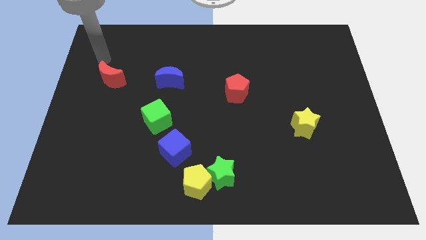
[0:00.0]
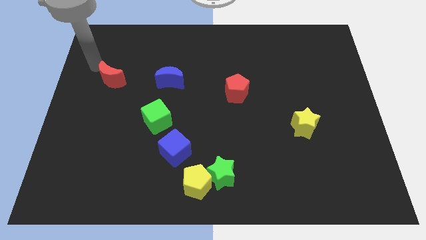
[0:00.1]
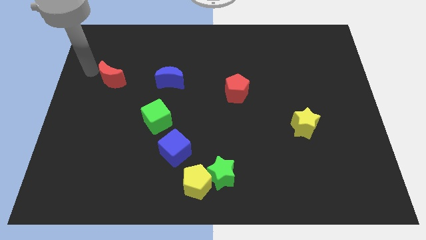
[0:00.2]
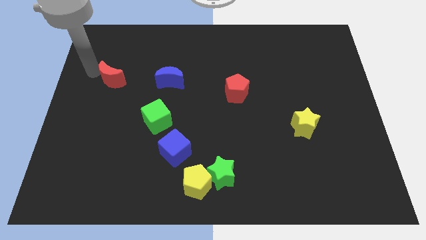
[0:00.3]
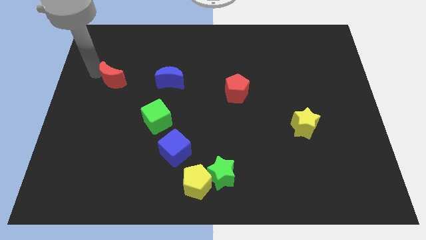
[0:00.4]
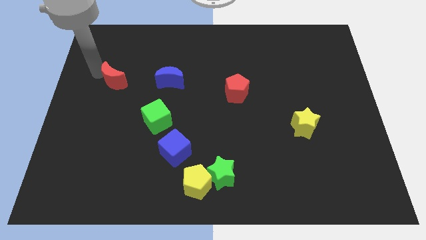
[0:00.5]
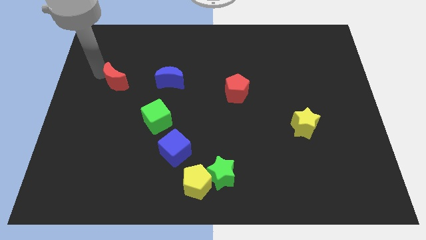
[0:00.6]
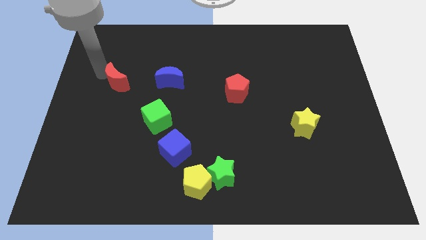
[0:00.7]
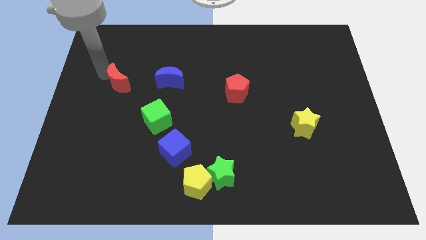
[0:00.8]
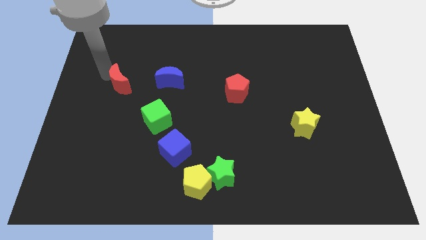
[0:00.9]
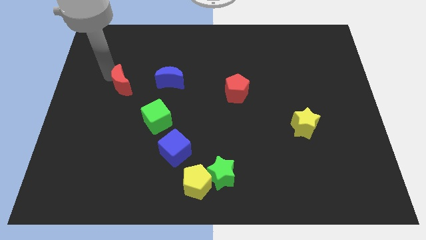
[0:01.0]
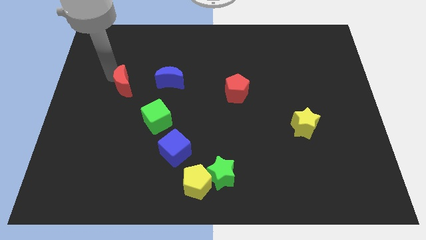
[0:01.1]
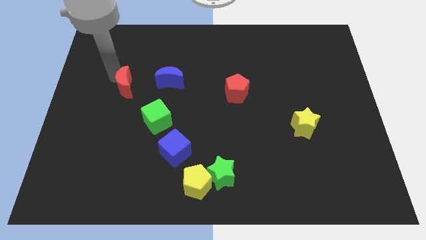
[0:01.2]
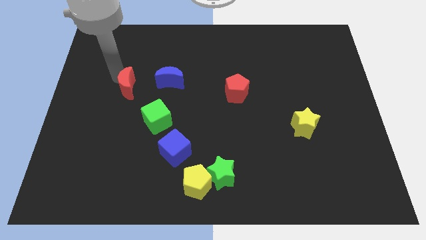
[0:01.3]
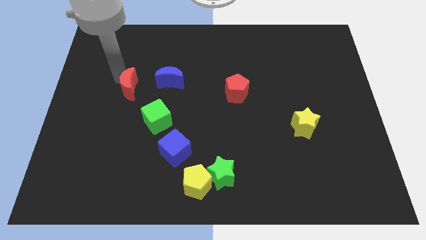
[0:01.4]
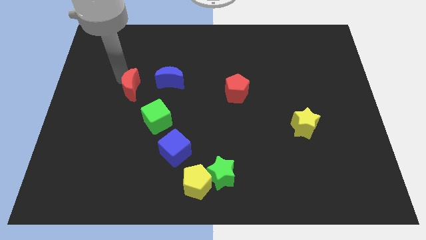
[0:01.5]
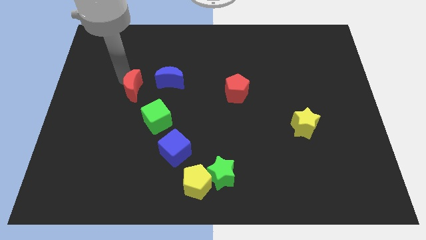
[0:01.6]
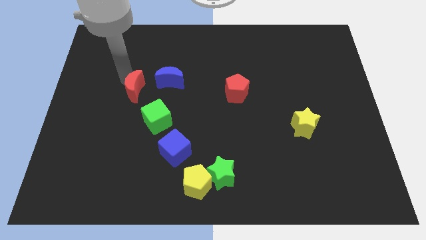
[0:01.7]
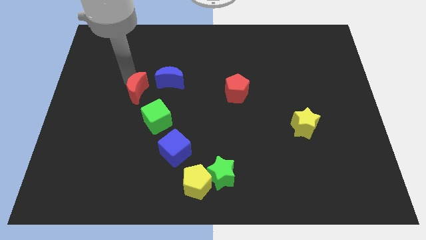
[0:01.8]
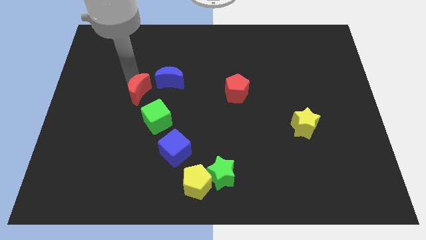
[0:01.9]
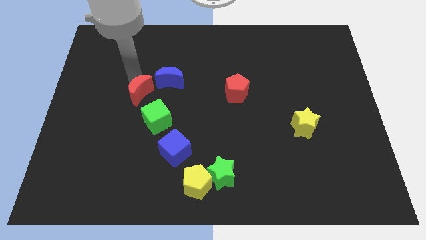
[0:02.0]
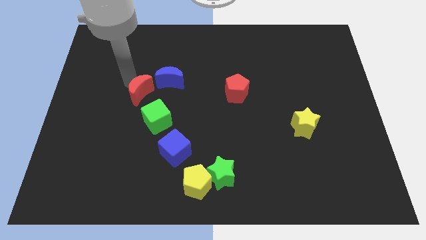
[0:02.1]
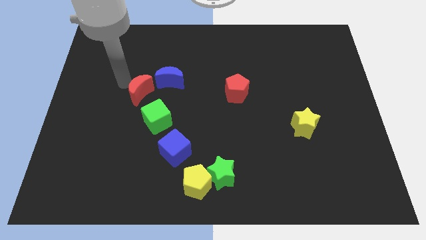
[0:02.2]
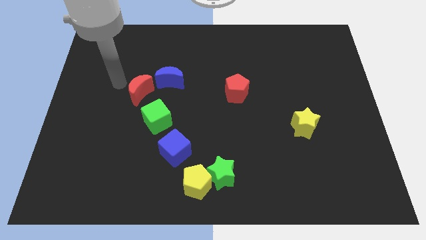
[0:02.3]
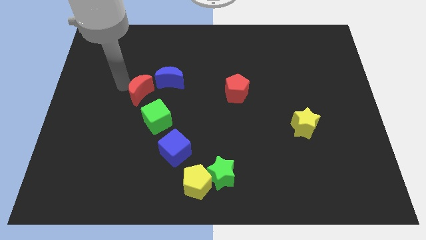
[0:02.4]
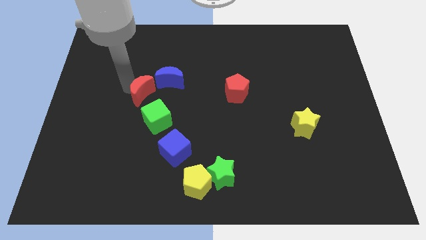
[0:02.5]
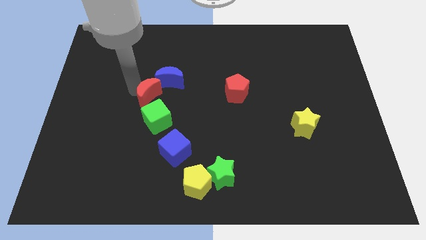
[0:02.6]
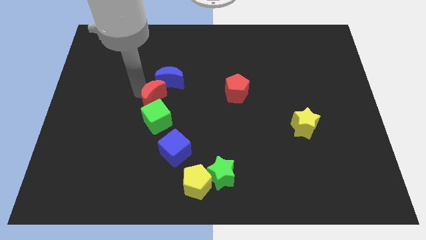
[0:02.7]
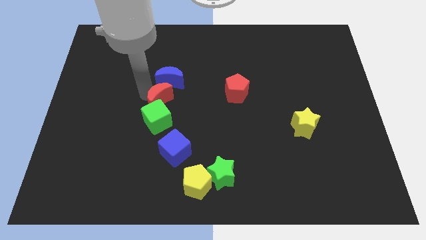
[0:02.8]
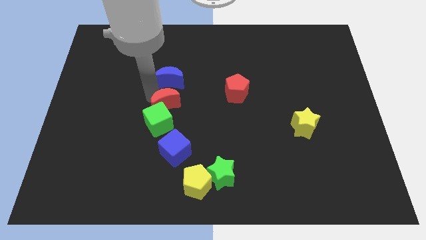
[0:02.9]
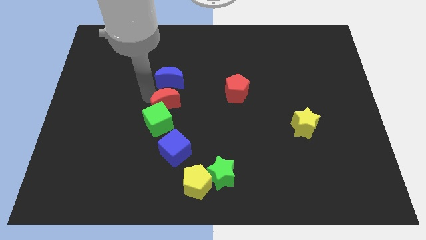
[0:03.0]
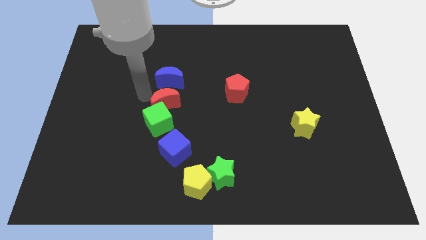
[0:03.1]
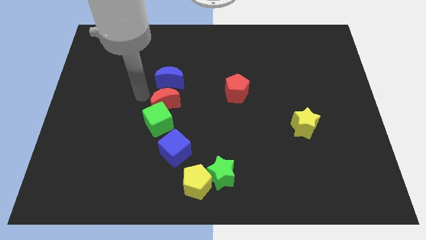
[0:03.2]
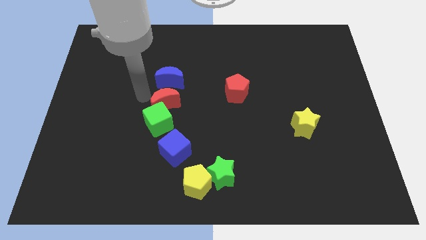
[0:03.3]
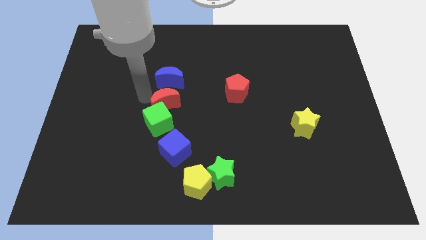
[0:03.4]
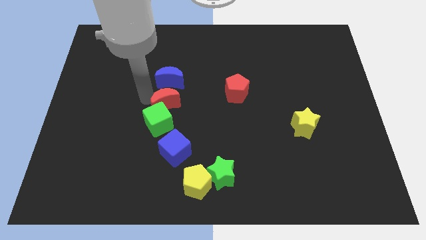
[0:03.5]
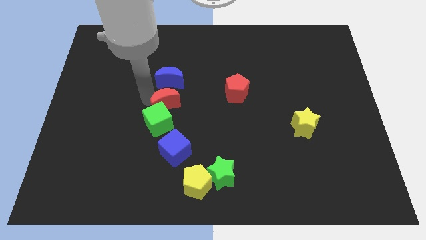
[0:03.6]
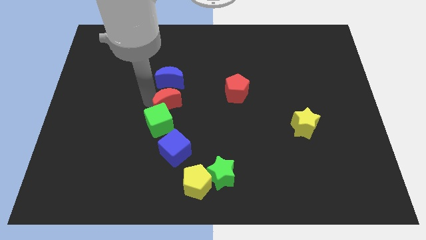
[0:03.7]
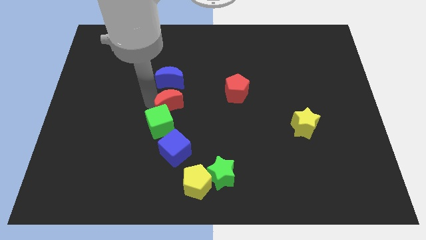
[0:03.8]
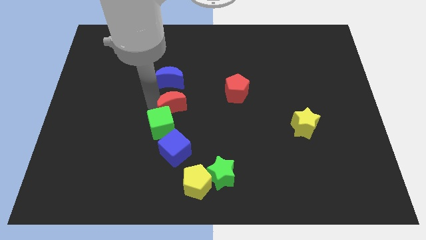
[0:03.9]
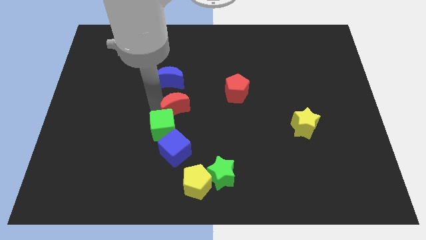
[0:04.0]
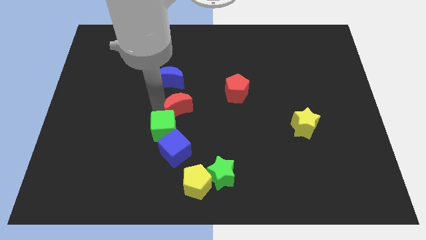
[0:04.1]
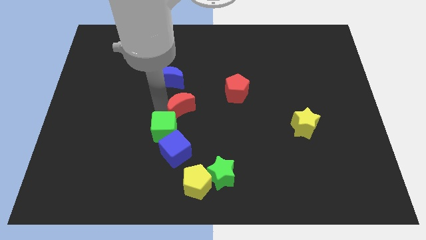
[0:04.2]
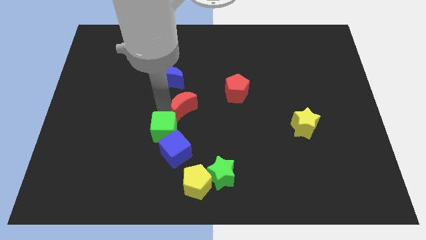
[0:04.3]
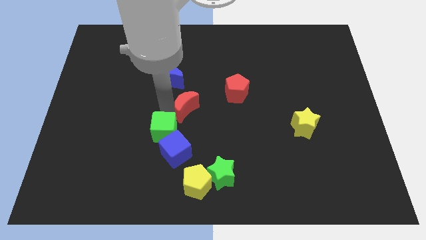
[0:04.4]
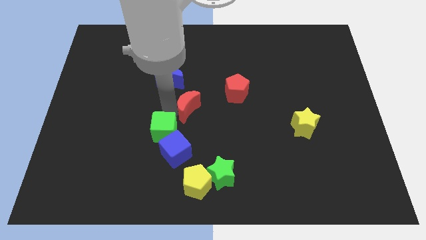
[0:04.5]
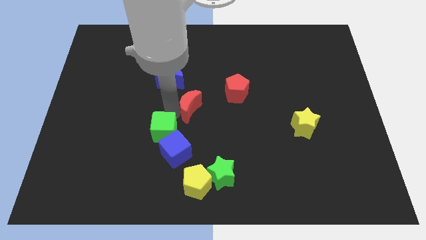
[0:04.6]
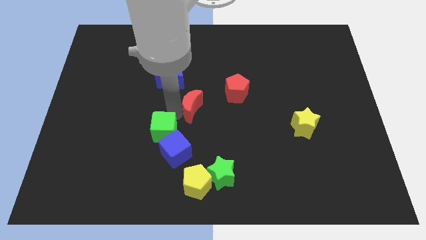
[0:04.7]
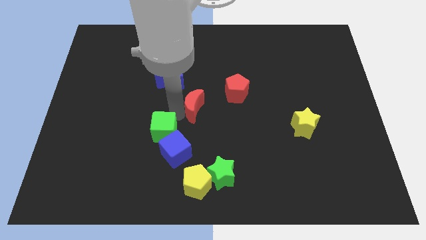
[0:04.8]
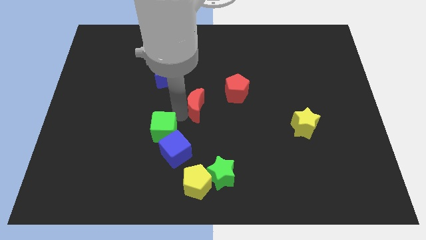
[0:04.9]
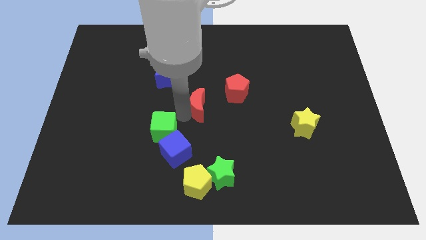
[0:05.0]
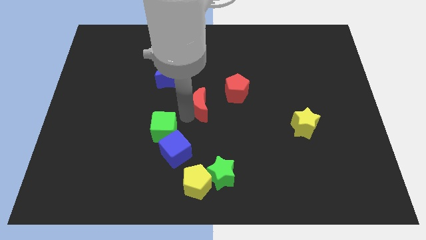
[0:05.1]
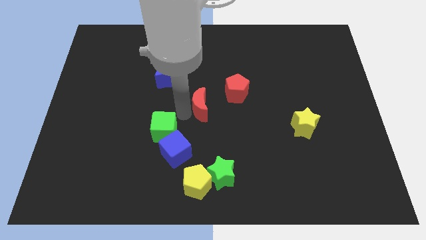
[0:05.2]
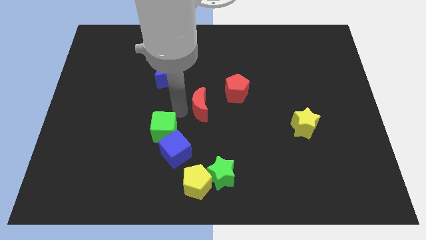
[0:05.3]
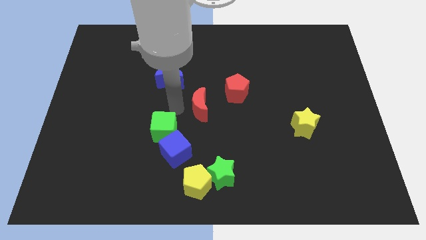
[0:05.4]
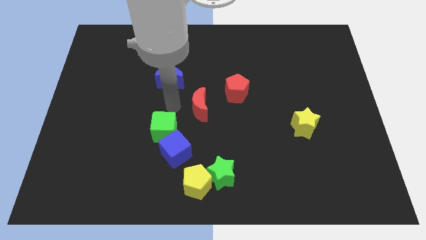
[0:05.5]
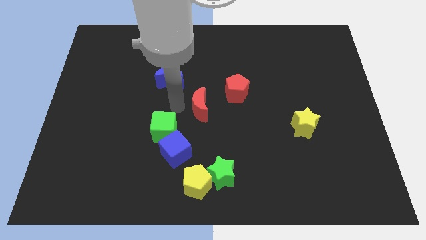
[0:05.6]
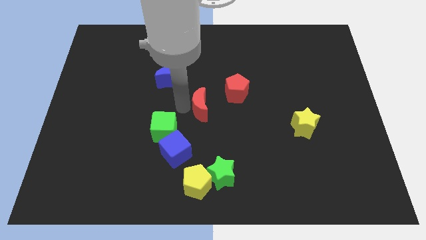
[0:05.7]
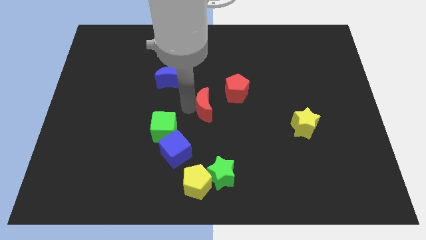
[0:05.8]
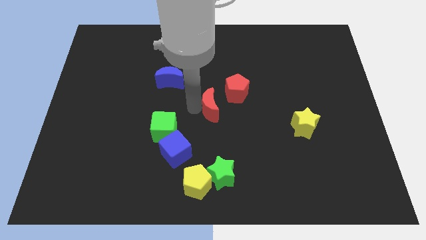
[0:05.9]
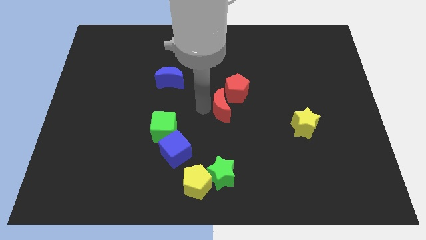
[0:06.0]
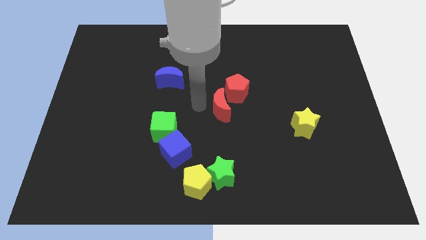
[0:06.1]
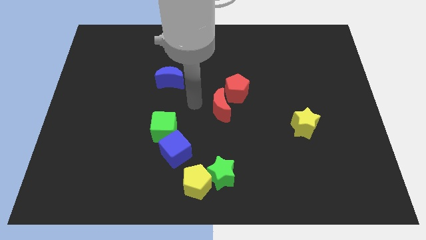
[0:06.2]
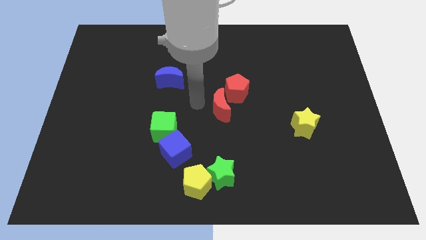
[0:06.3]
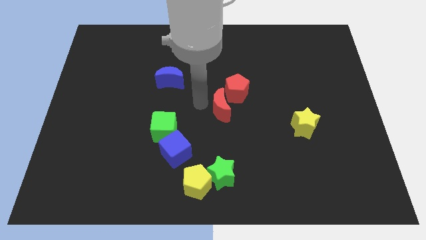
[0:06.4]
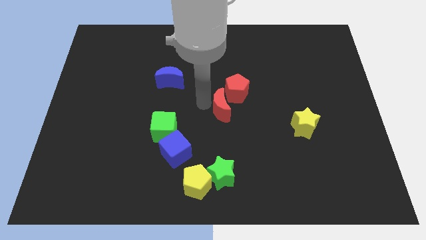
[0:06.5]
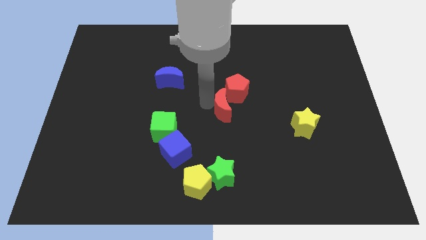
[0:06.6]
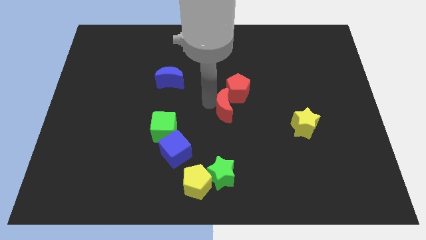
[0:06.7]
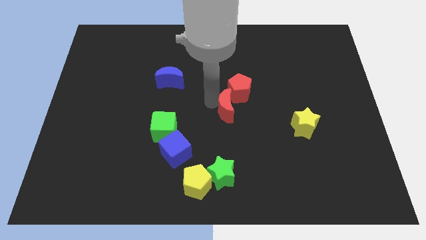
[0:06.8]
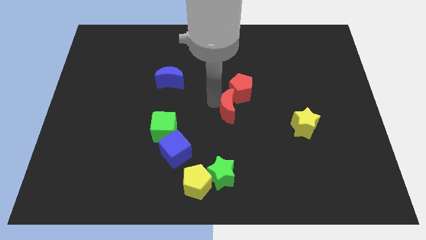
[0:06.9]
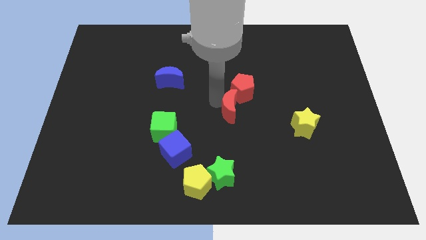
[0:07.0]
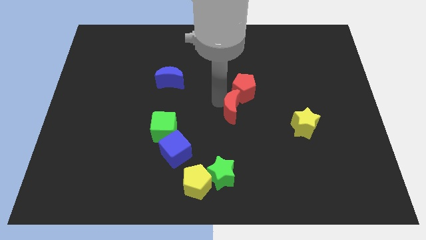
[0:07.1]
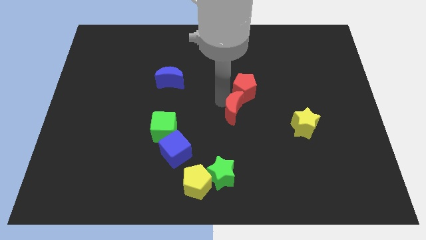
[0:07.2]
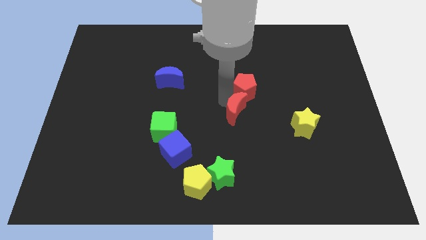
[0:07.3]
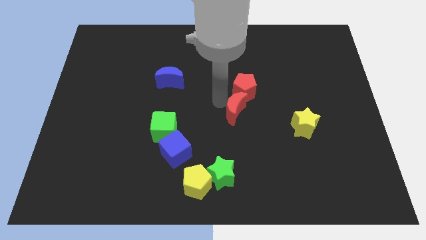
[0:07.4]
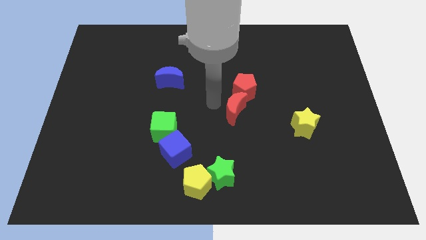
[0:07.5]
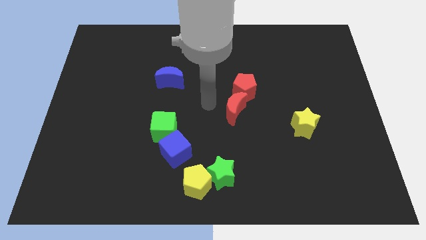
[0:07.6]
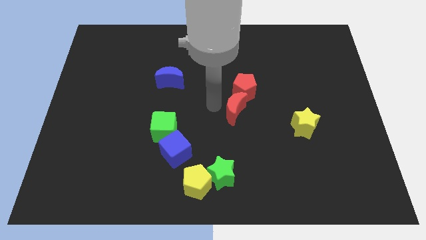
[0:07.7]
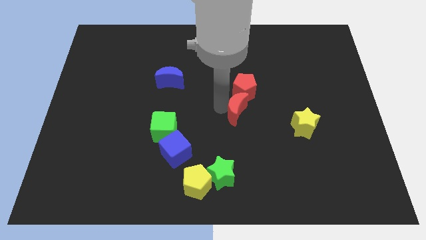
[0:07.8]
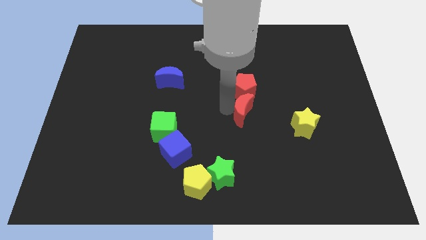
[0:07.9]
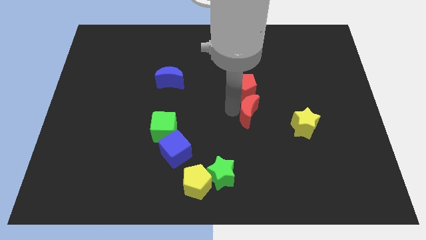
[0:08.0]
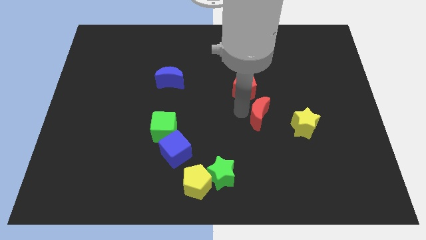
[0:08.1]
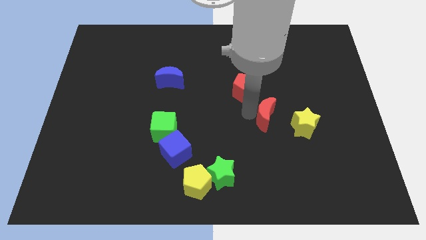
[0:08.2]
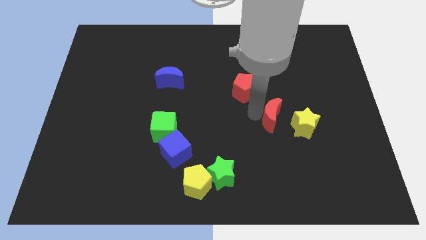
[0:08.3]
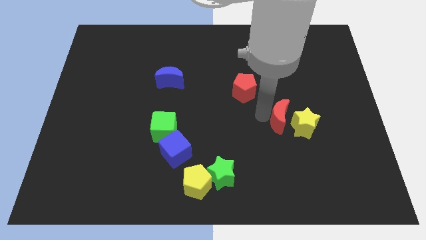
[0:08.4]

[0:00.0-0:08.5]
slide the red moon next to the yellow star
